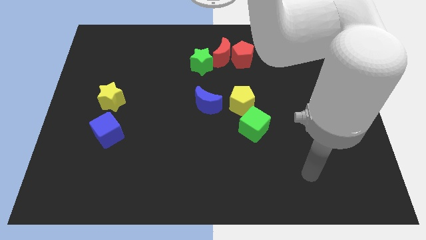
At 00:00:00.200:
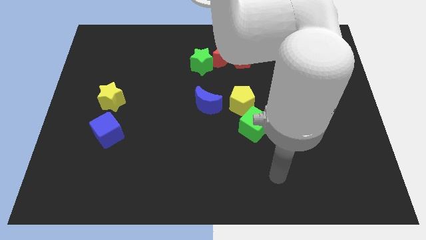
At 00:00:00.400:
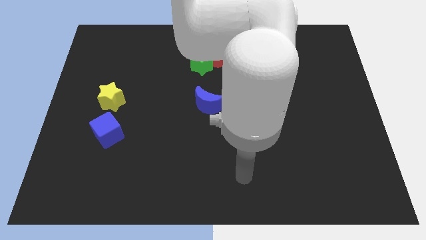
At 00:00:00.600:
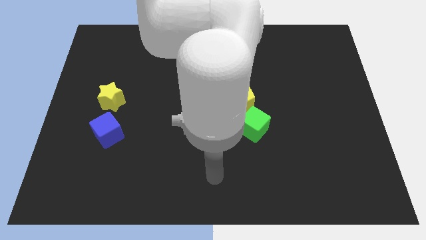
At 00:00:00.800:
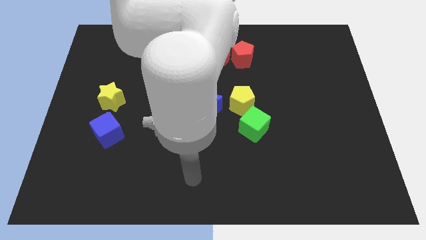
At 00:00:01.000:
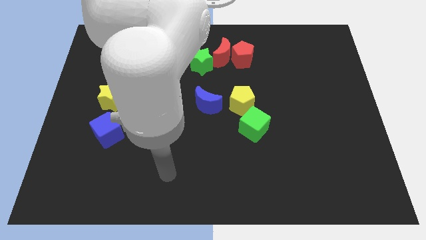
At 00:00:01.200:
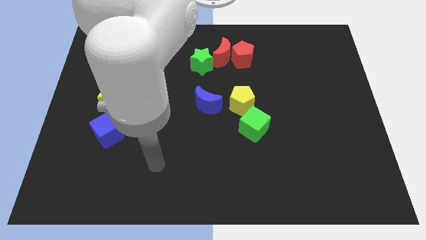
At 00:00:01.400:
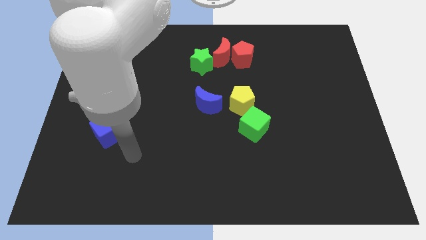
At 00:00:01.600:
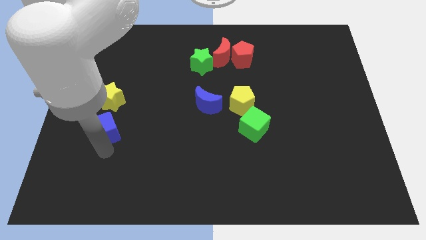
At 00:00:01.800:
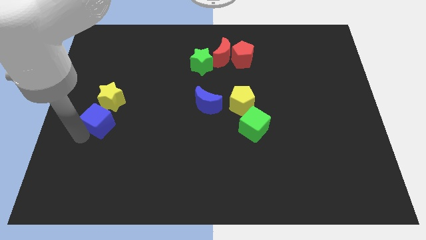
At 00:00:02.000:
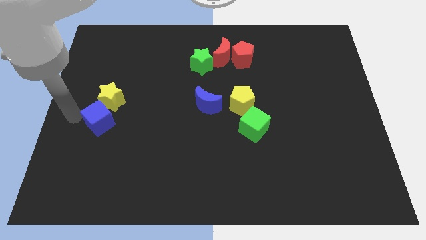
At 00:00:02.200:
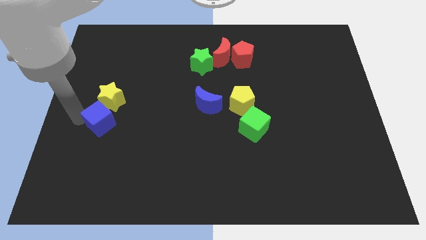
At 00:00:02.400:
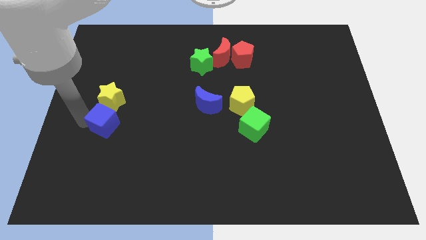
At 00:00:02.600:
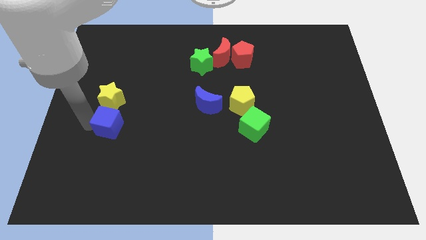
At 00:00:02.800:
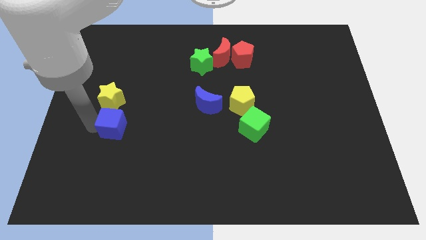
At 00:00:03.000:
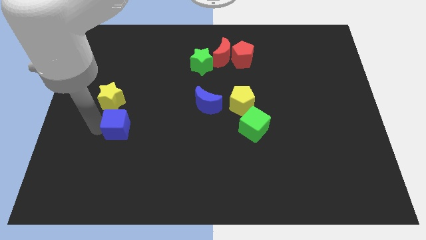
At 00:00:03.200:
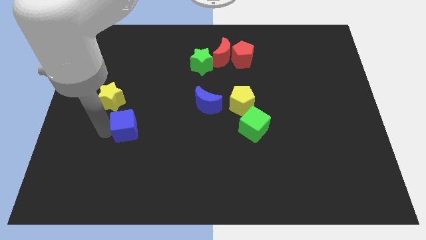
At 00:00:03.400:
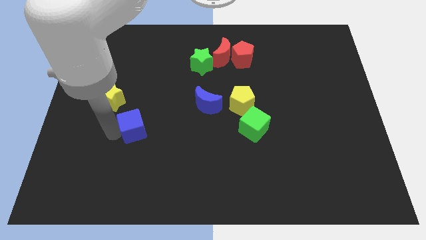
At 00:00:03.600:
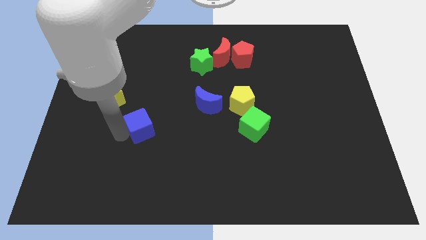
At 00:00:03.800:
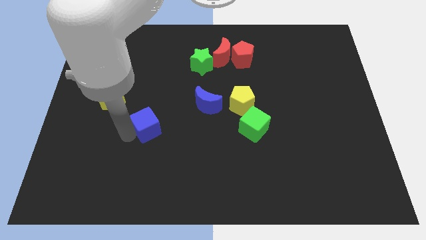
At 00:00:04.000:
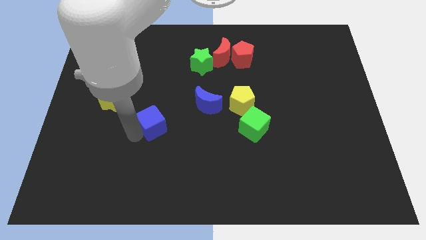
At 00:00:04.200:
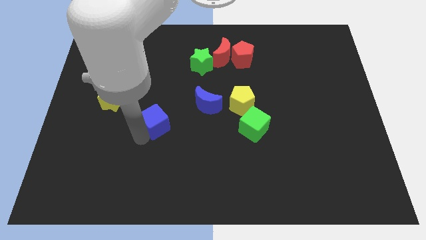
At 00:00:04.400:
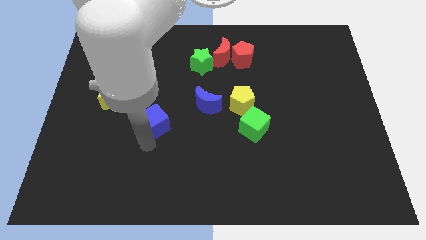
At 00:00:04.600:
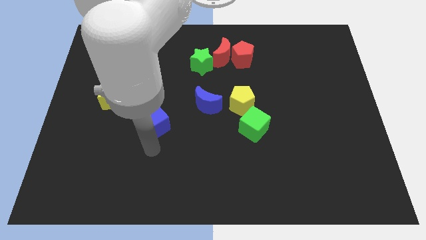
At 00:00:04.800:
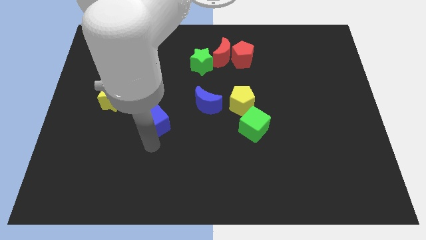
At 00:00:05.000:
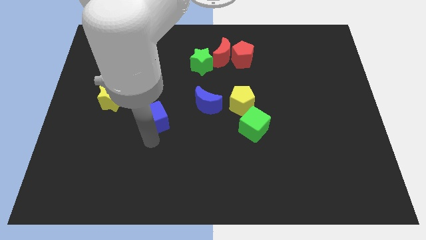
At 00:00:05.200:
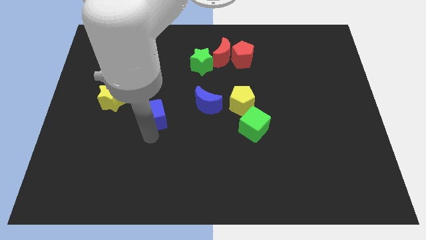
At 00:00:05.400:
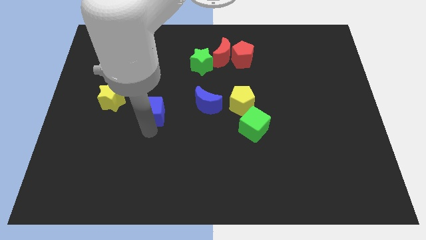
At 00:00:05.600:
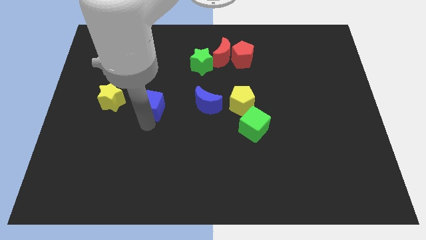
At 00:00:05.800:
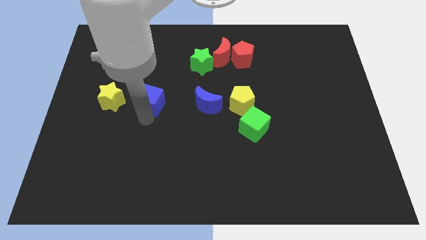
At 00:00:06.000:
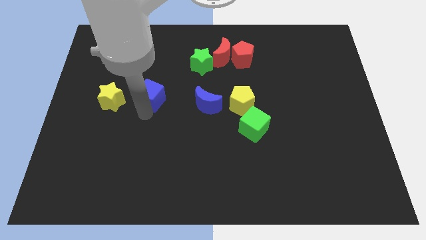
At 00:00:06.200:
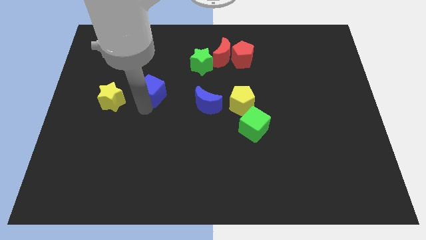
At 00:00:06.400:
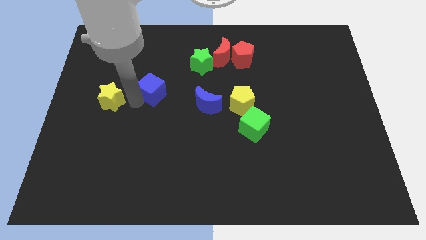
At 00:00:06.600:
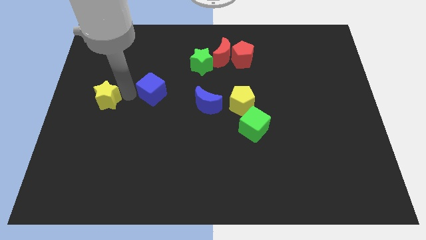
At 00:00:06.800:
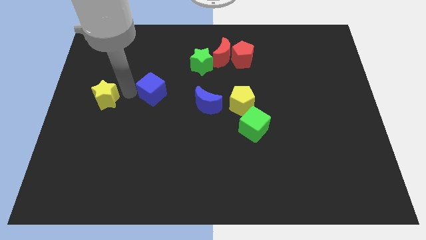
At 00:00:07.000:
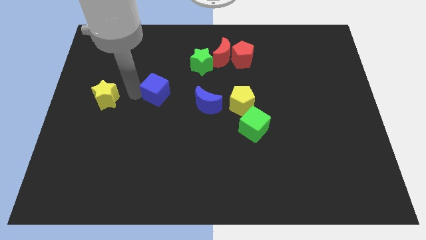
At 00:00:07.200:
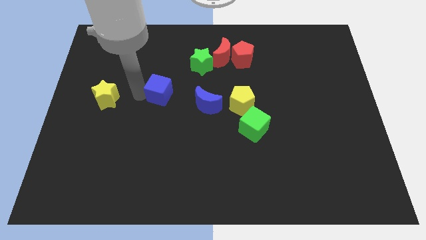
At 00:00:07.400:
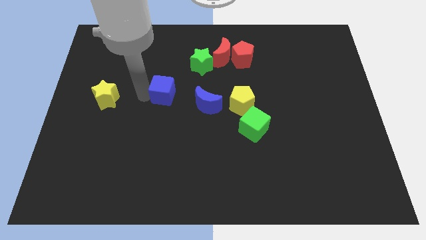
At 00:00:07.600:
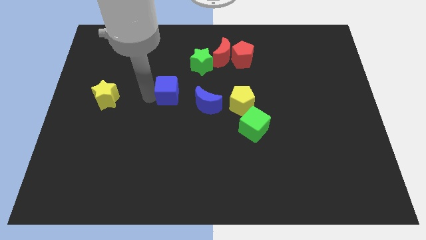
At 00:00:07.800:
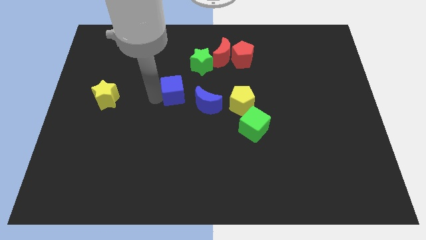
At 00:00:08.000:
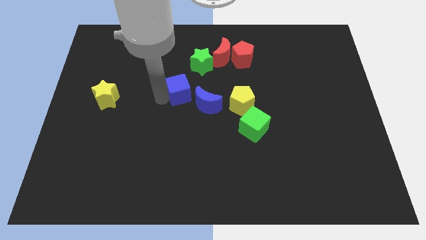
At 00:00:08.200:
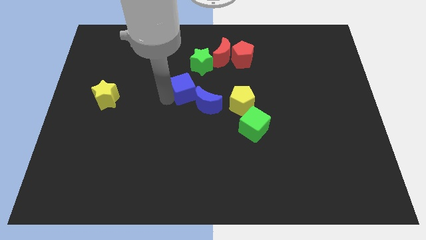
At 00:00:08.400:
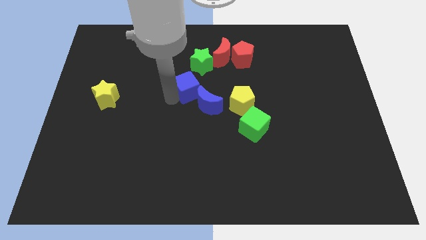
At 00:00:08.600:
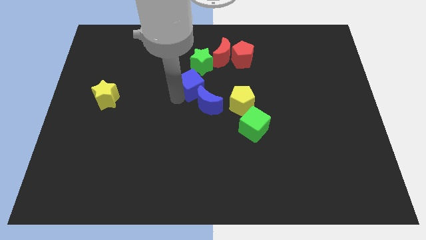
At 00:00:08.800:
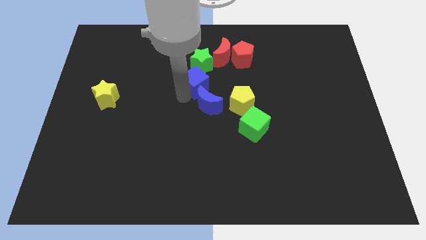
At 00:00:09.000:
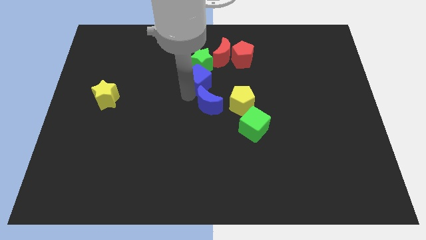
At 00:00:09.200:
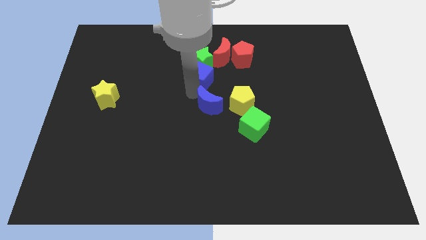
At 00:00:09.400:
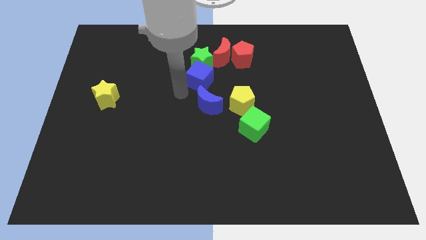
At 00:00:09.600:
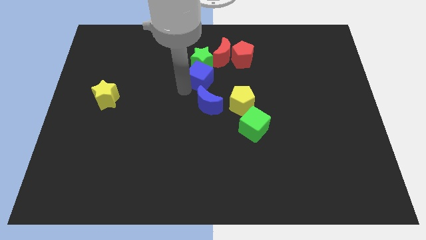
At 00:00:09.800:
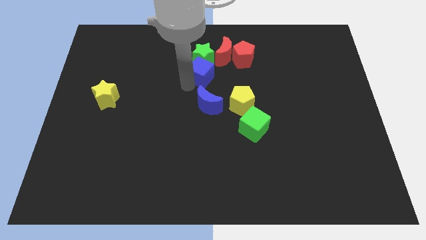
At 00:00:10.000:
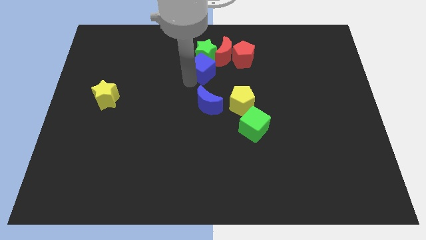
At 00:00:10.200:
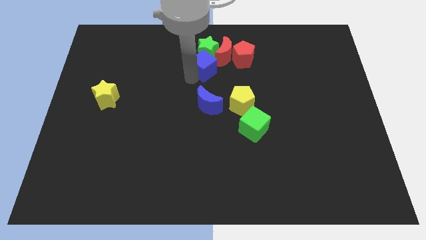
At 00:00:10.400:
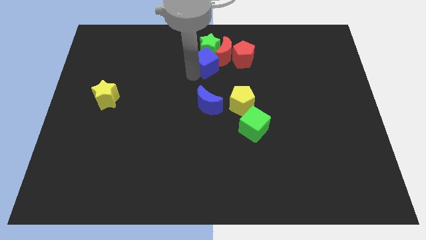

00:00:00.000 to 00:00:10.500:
put the blue cube to the red moon

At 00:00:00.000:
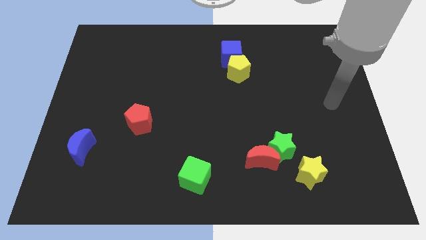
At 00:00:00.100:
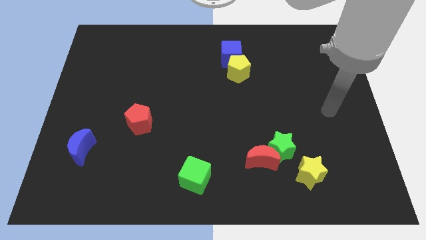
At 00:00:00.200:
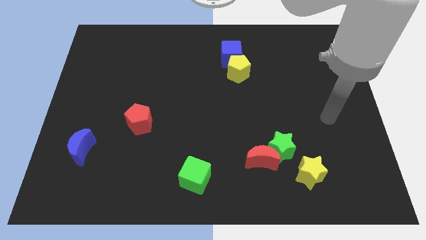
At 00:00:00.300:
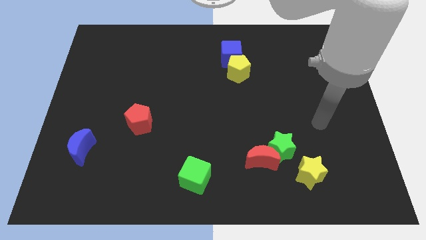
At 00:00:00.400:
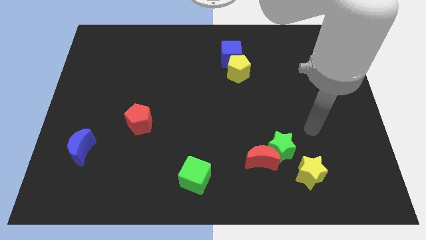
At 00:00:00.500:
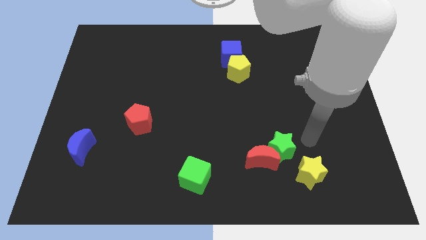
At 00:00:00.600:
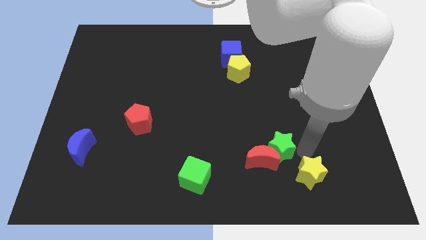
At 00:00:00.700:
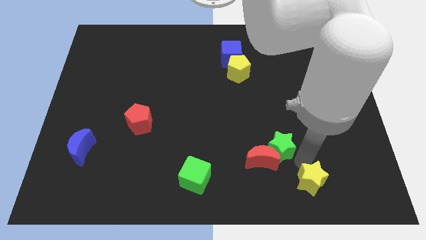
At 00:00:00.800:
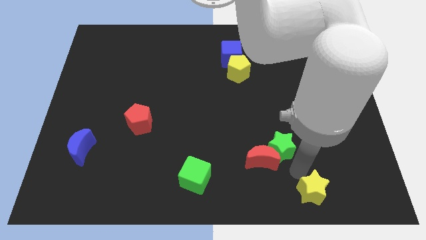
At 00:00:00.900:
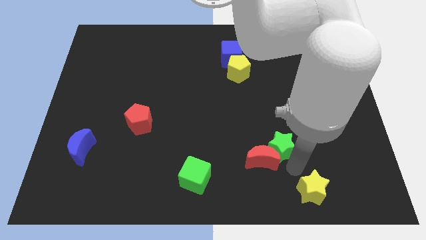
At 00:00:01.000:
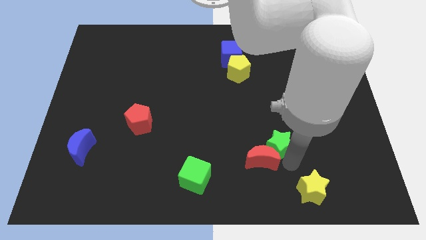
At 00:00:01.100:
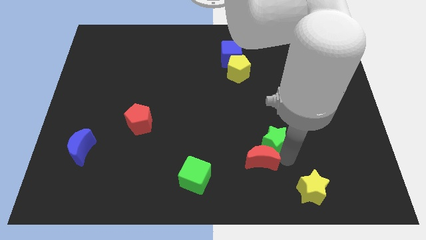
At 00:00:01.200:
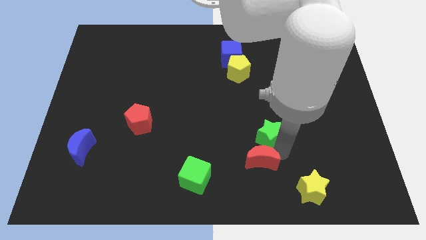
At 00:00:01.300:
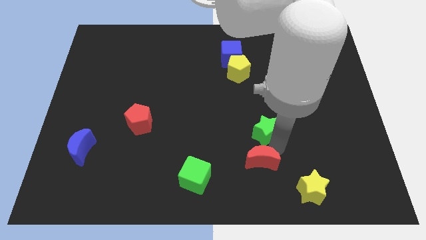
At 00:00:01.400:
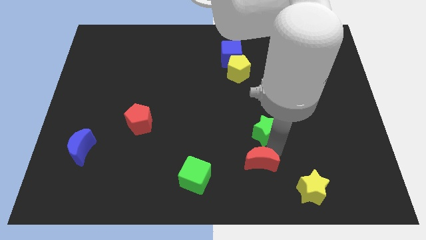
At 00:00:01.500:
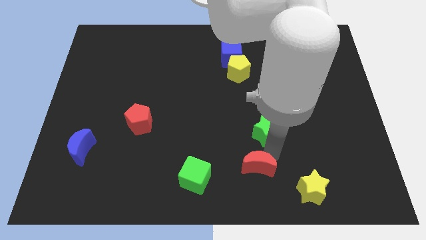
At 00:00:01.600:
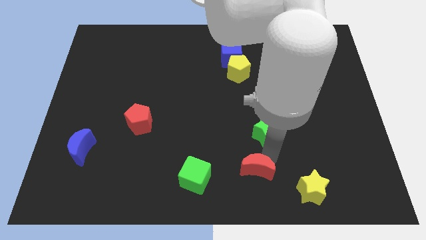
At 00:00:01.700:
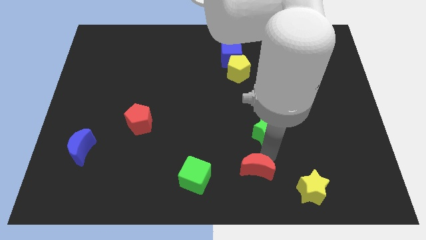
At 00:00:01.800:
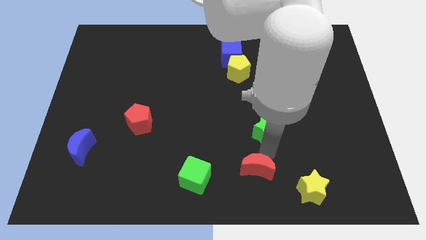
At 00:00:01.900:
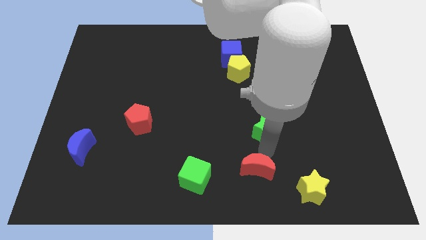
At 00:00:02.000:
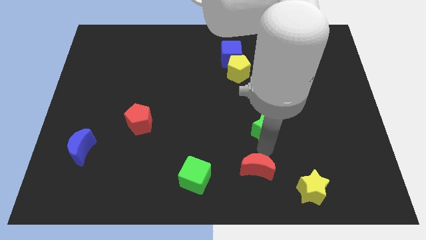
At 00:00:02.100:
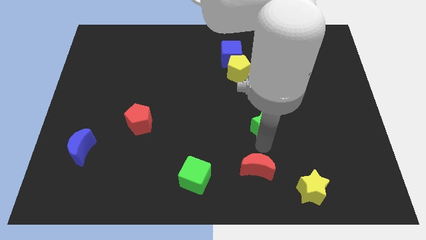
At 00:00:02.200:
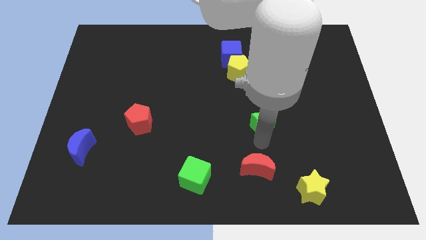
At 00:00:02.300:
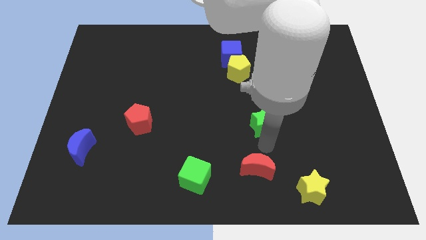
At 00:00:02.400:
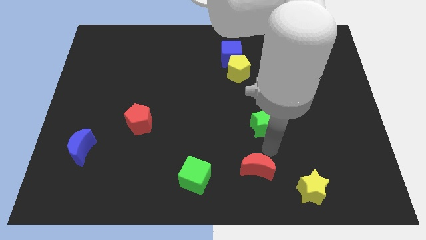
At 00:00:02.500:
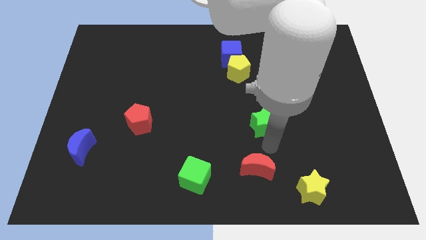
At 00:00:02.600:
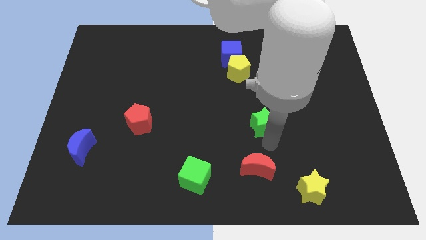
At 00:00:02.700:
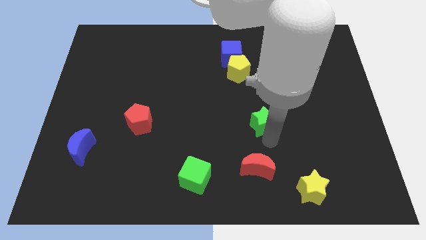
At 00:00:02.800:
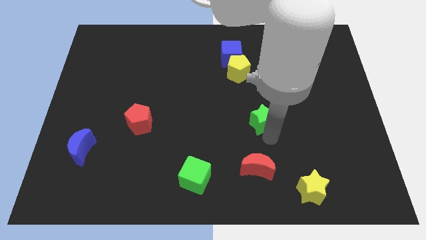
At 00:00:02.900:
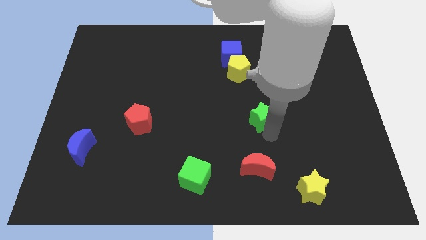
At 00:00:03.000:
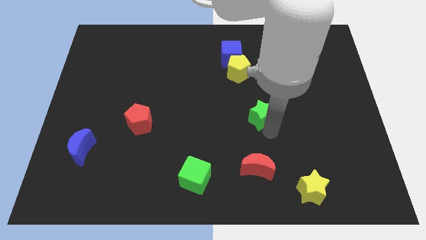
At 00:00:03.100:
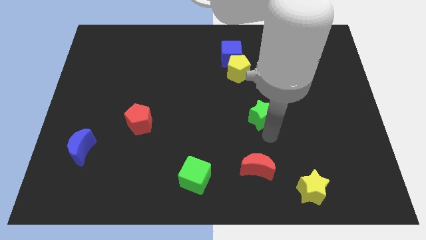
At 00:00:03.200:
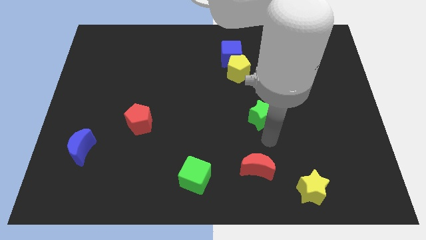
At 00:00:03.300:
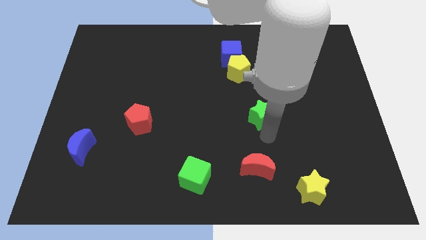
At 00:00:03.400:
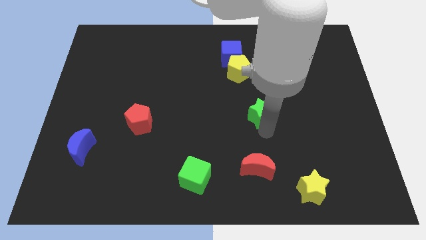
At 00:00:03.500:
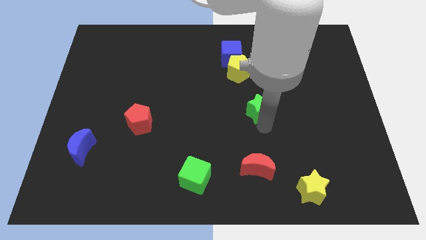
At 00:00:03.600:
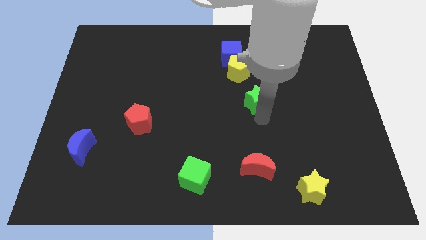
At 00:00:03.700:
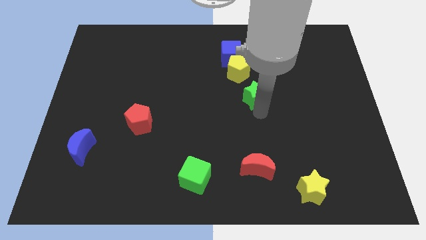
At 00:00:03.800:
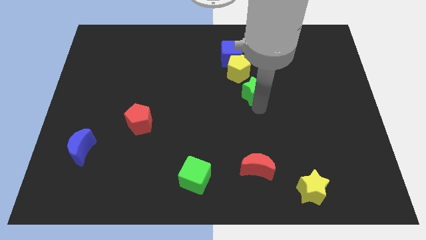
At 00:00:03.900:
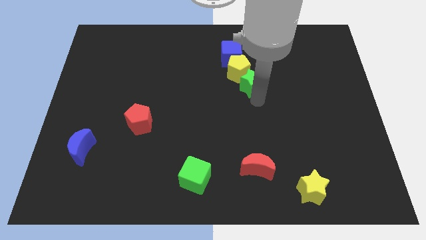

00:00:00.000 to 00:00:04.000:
put the green star close to the yellow pentagon
